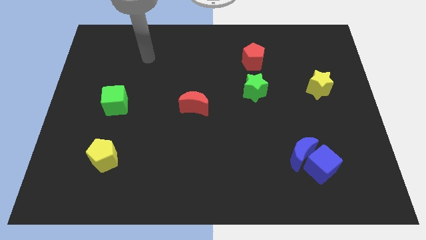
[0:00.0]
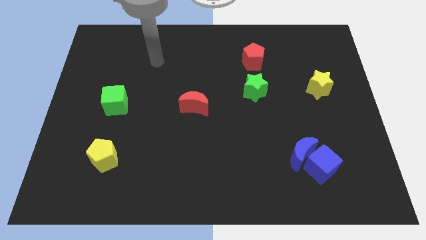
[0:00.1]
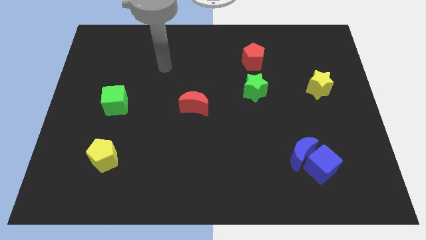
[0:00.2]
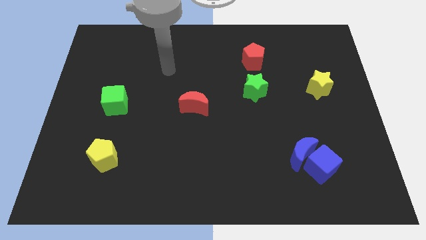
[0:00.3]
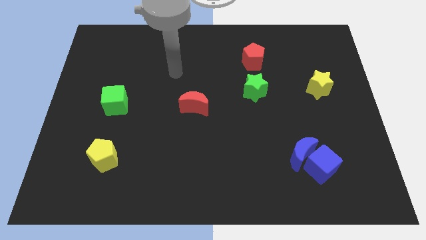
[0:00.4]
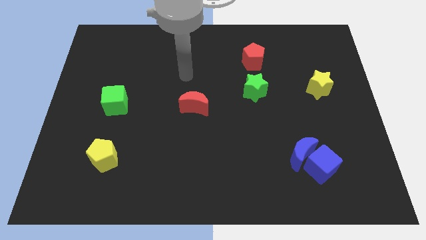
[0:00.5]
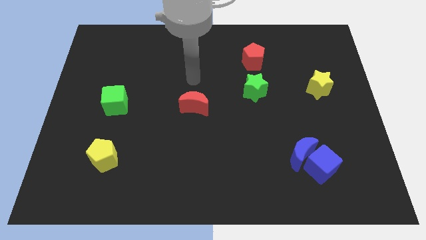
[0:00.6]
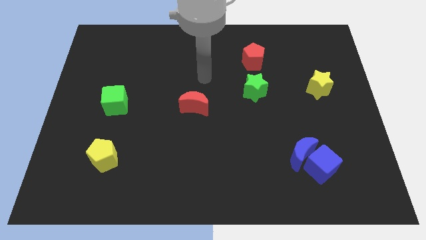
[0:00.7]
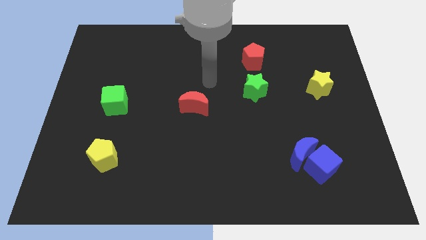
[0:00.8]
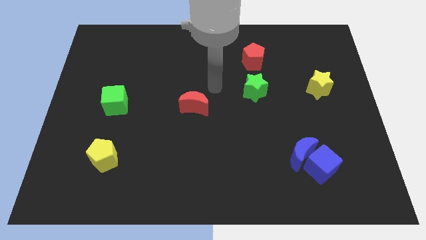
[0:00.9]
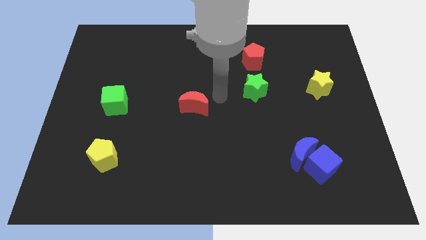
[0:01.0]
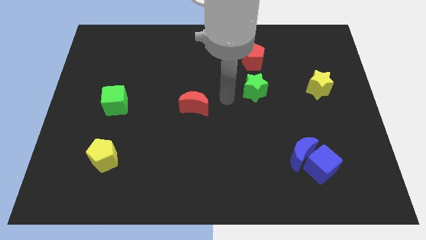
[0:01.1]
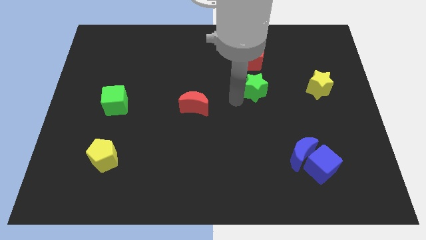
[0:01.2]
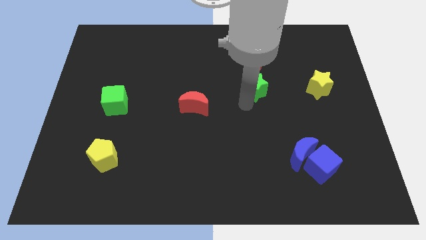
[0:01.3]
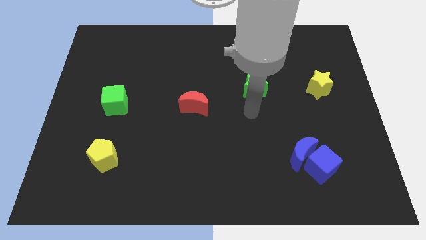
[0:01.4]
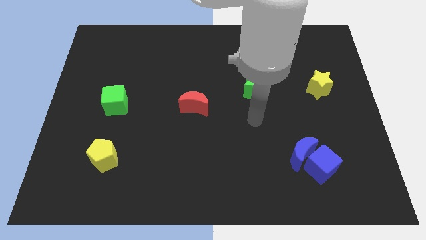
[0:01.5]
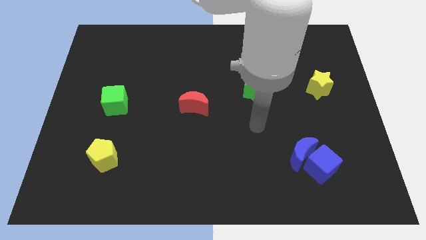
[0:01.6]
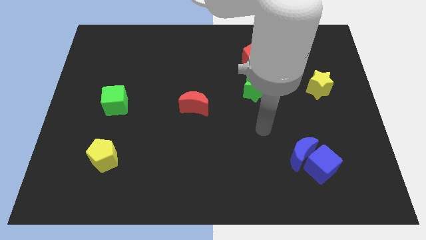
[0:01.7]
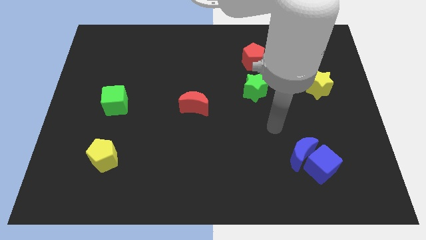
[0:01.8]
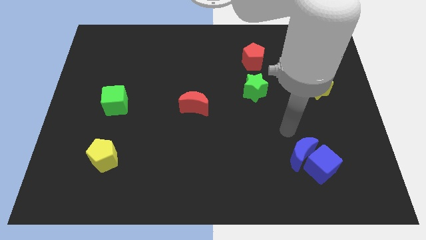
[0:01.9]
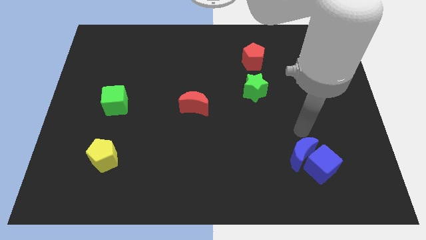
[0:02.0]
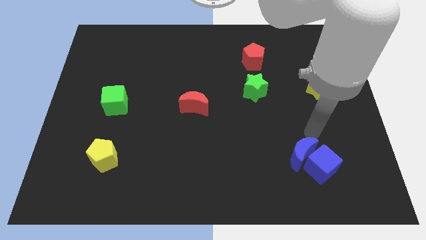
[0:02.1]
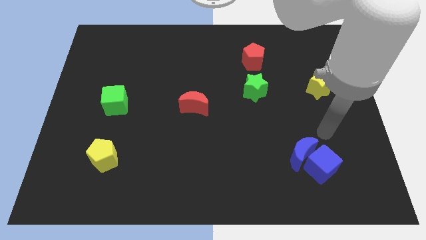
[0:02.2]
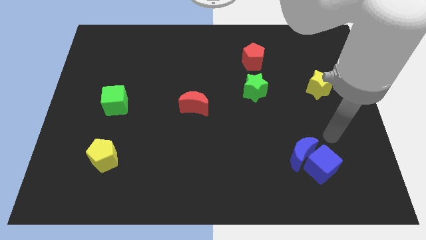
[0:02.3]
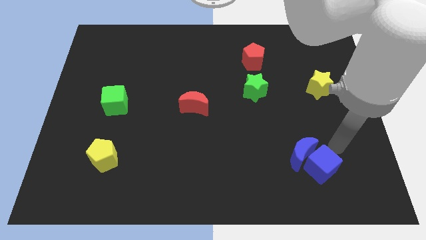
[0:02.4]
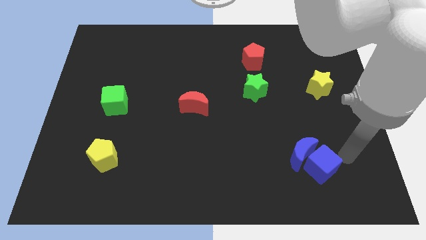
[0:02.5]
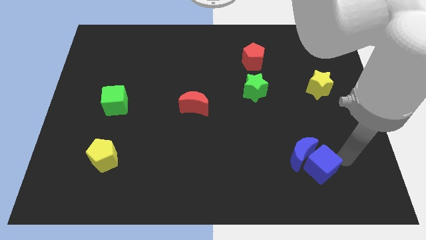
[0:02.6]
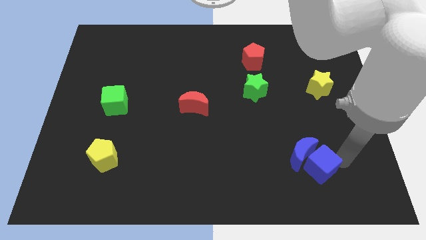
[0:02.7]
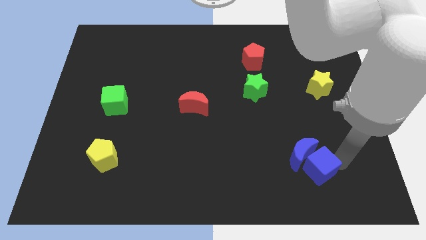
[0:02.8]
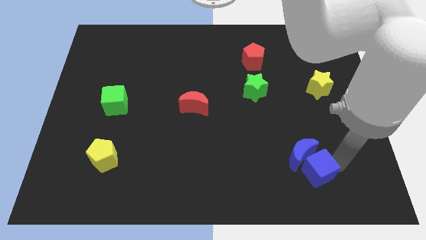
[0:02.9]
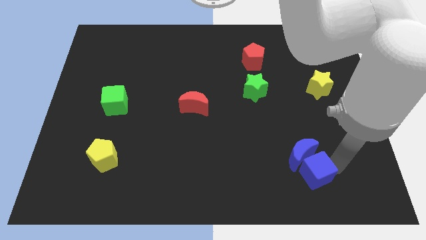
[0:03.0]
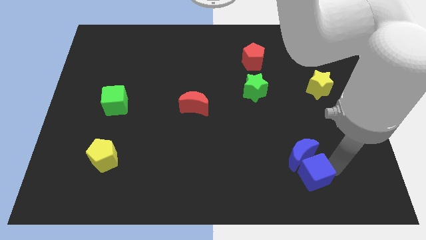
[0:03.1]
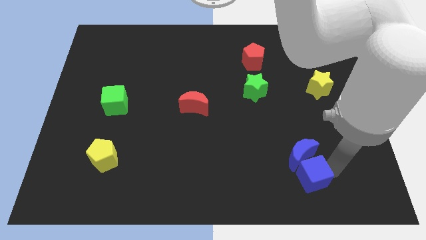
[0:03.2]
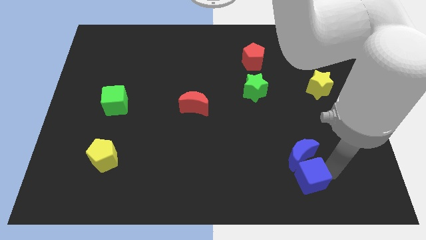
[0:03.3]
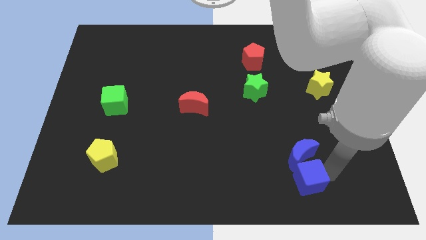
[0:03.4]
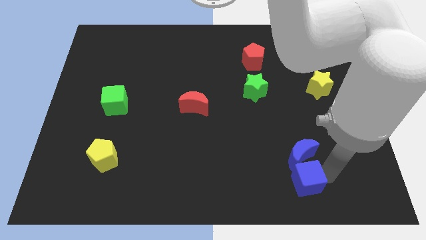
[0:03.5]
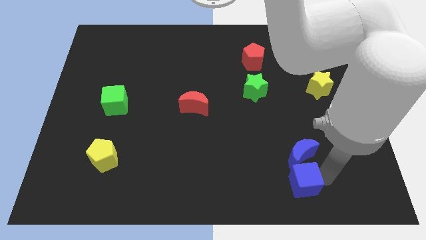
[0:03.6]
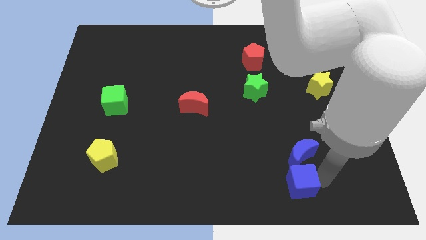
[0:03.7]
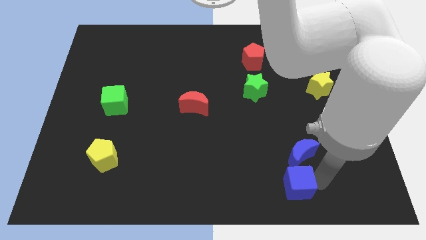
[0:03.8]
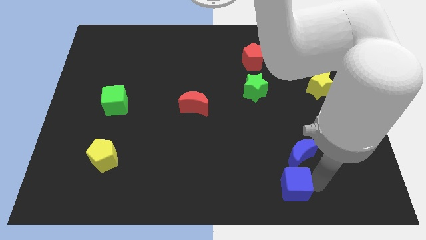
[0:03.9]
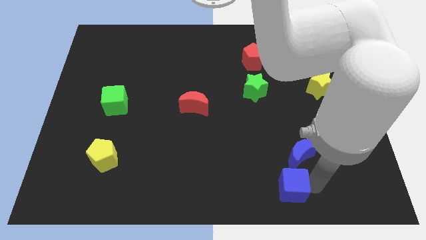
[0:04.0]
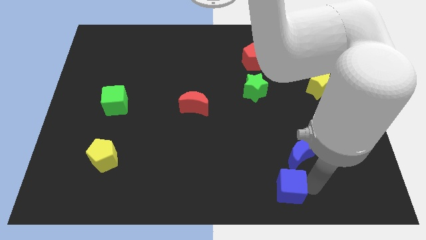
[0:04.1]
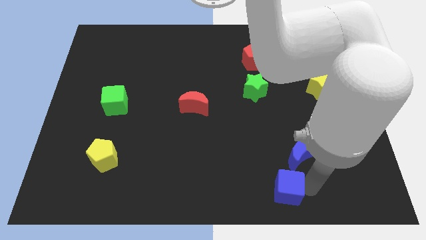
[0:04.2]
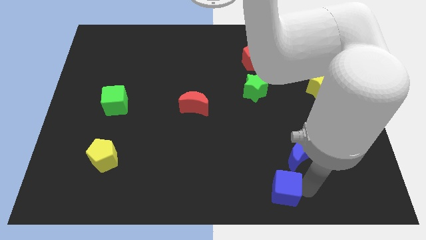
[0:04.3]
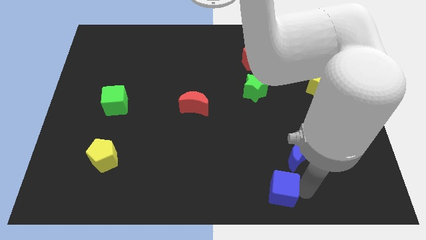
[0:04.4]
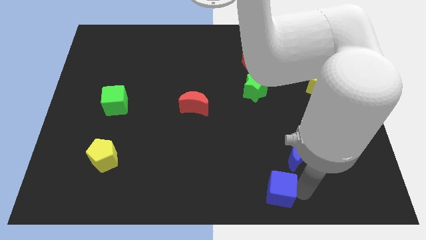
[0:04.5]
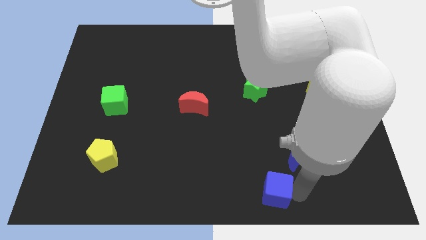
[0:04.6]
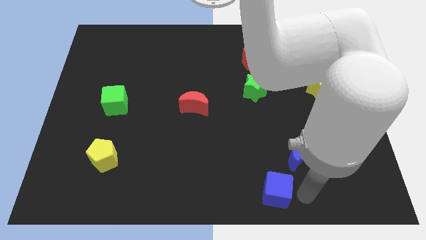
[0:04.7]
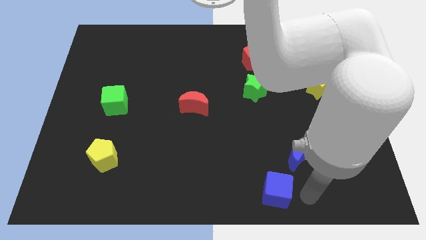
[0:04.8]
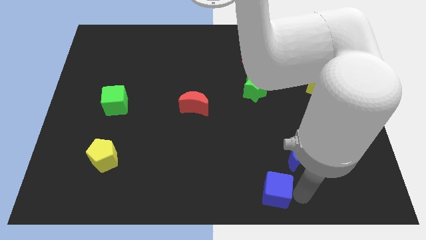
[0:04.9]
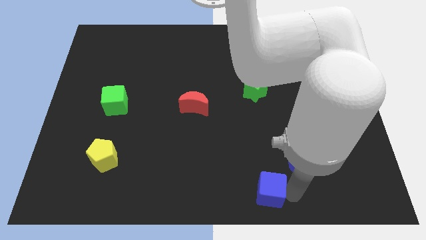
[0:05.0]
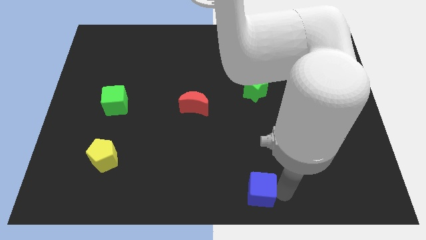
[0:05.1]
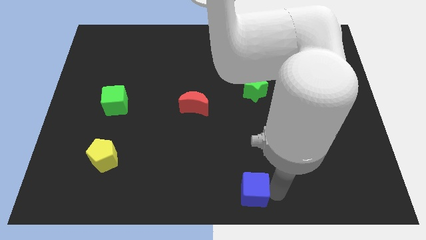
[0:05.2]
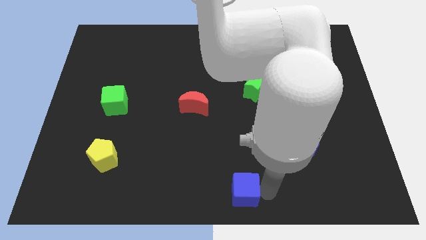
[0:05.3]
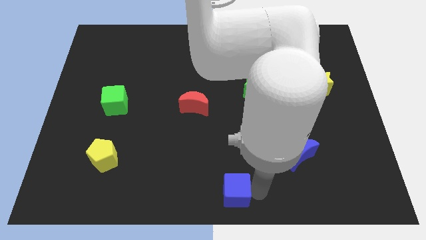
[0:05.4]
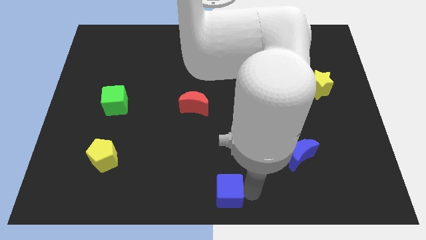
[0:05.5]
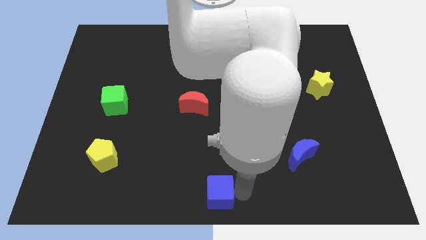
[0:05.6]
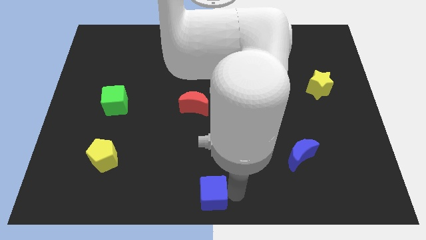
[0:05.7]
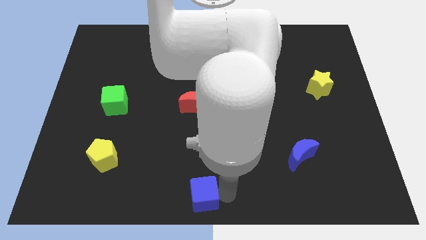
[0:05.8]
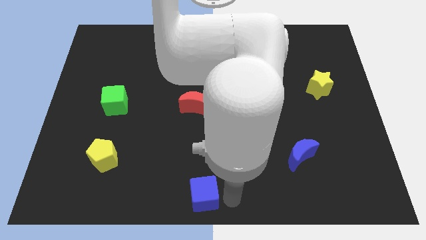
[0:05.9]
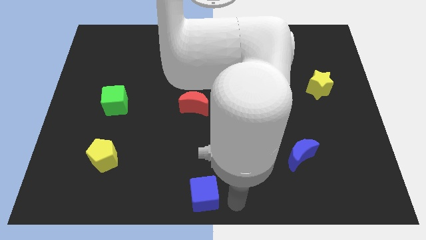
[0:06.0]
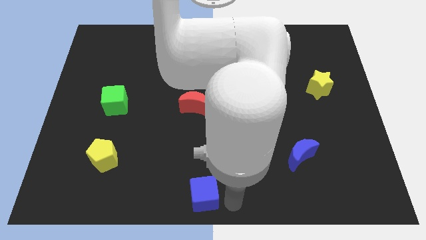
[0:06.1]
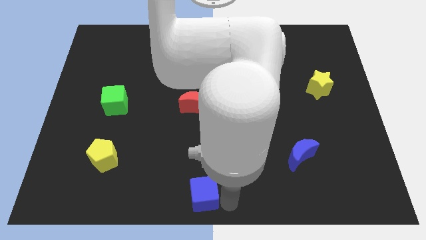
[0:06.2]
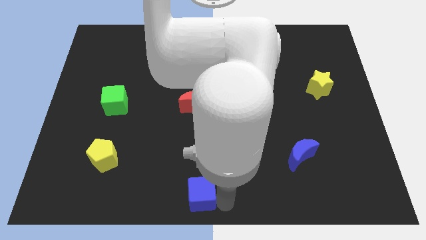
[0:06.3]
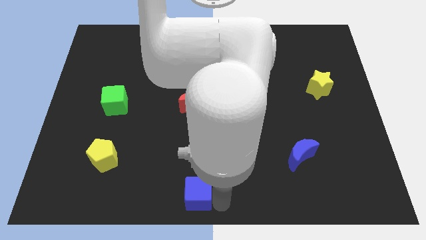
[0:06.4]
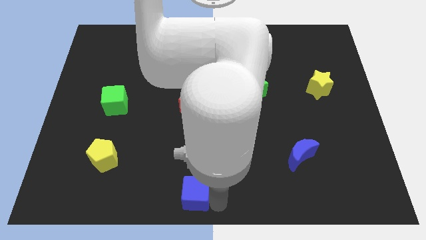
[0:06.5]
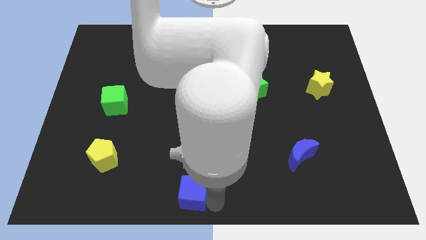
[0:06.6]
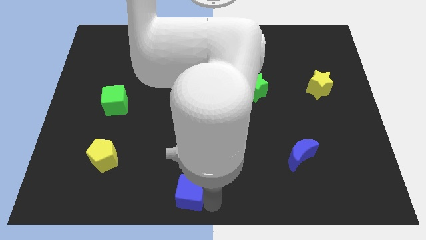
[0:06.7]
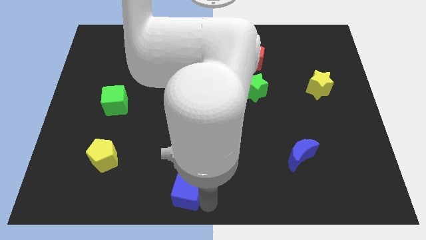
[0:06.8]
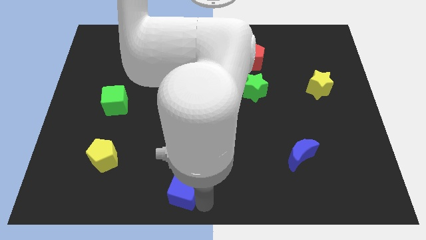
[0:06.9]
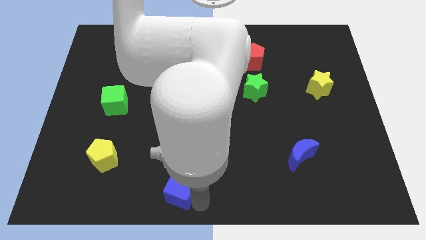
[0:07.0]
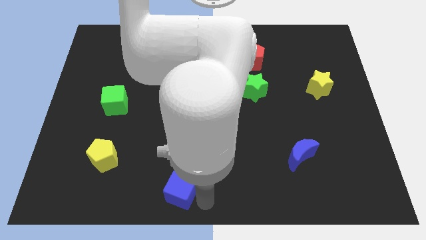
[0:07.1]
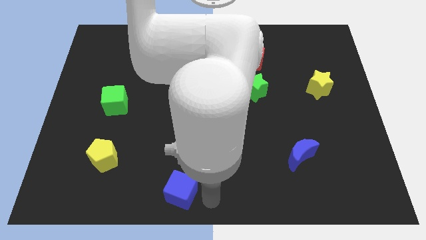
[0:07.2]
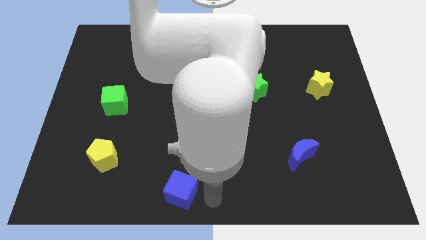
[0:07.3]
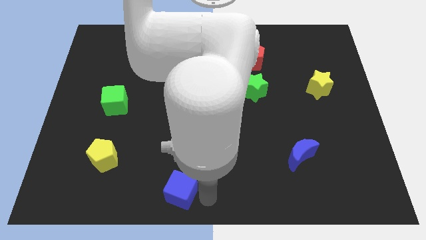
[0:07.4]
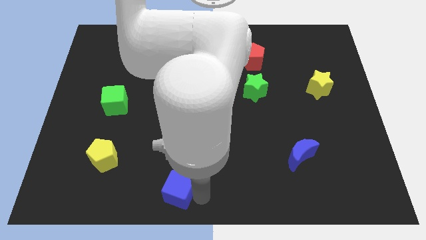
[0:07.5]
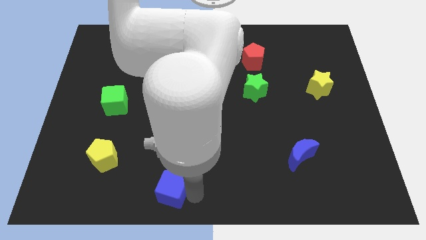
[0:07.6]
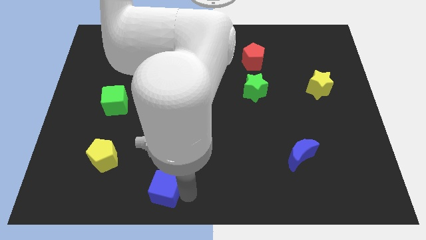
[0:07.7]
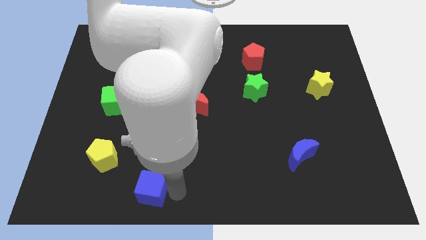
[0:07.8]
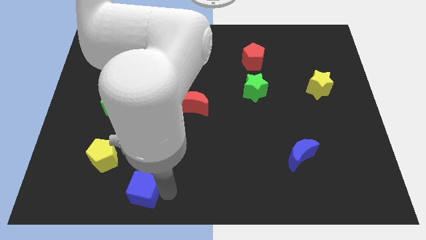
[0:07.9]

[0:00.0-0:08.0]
put the blue cube to the bottom right side of the yellow pentagon
